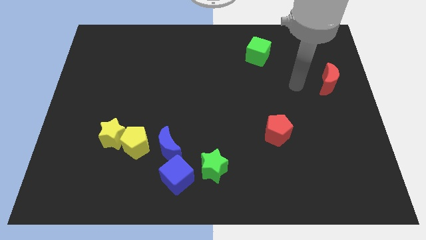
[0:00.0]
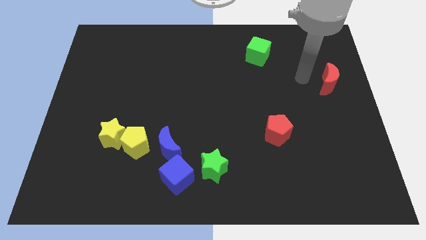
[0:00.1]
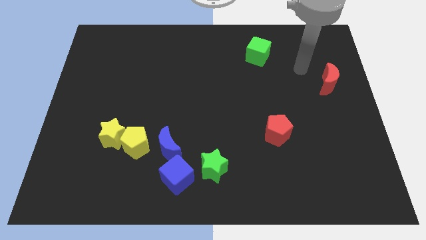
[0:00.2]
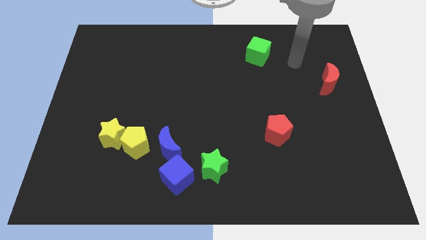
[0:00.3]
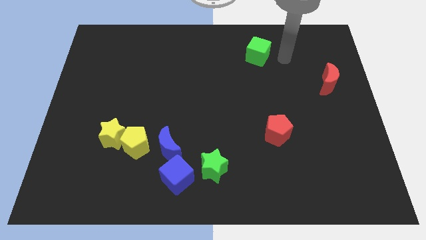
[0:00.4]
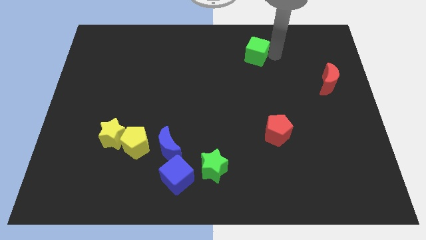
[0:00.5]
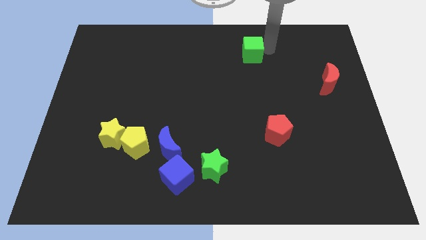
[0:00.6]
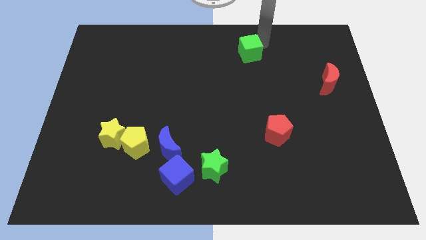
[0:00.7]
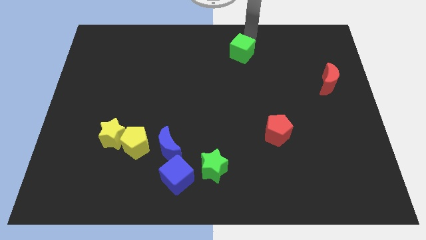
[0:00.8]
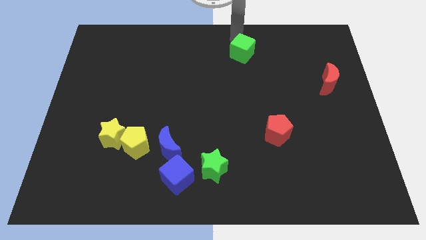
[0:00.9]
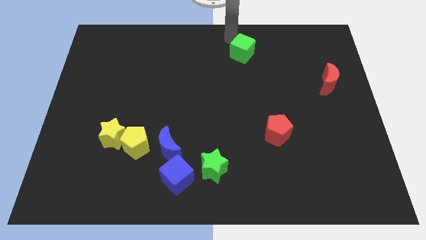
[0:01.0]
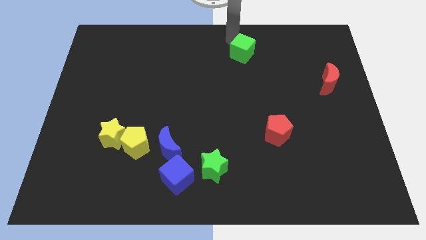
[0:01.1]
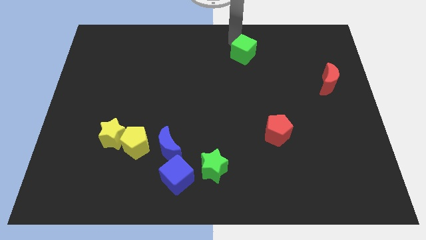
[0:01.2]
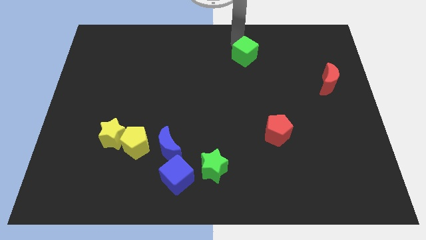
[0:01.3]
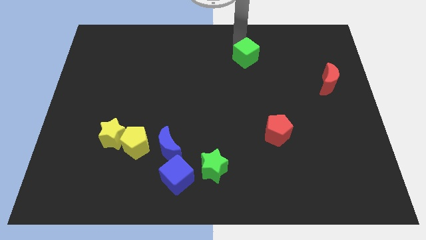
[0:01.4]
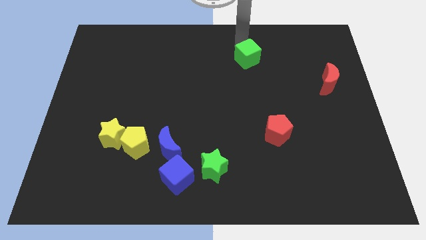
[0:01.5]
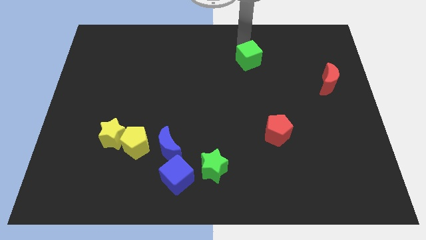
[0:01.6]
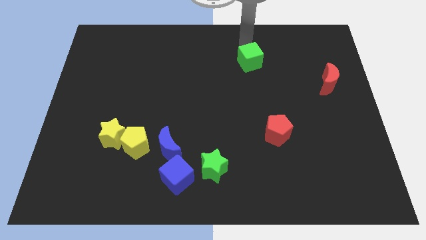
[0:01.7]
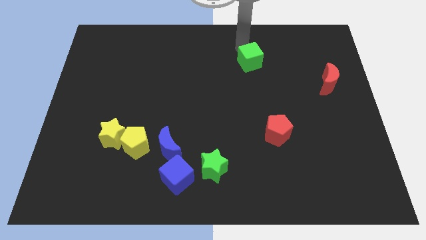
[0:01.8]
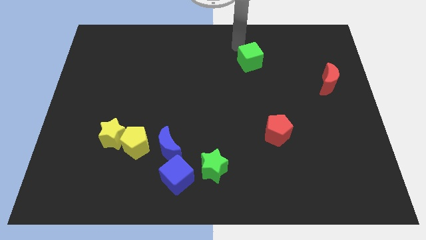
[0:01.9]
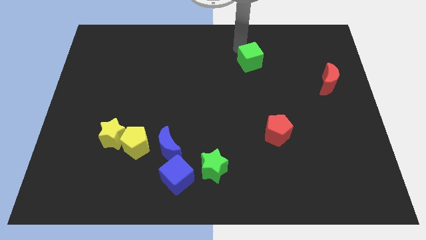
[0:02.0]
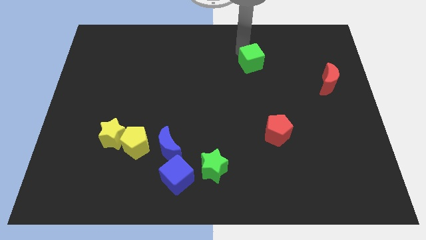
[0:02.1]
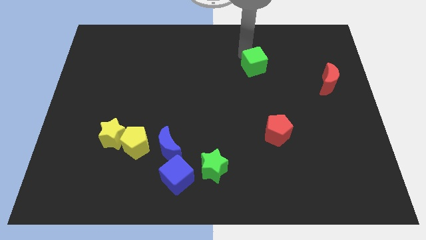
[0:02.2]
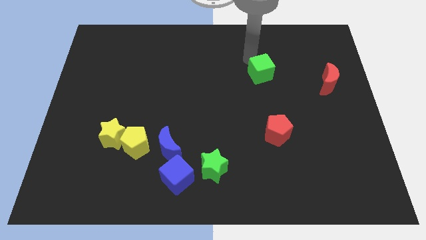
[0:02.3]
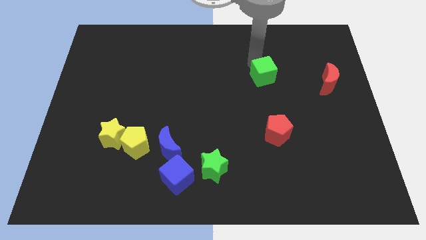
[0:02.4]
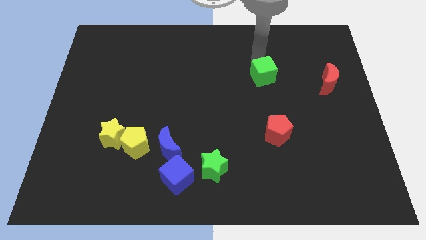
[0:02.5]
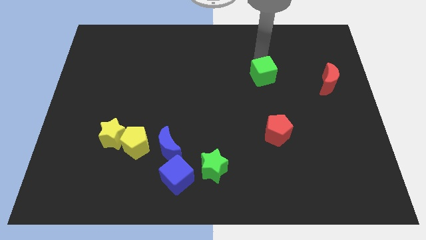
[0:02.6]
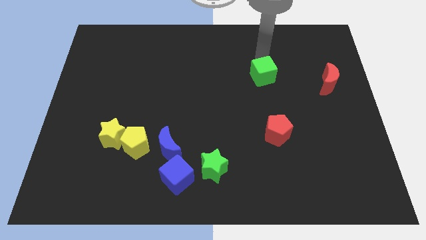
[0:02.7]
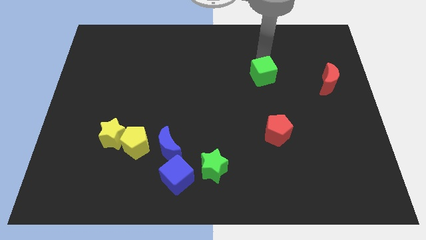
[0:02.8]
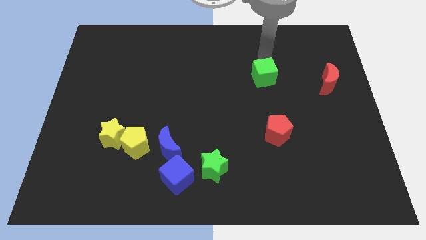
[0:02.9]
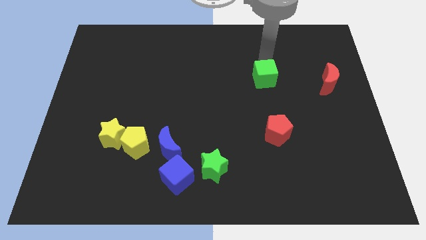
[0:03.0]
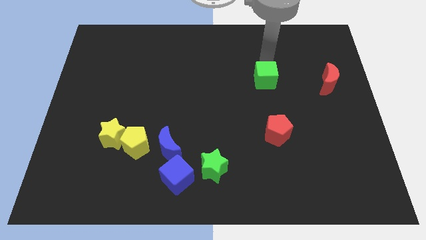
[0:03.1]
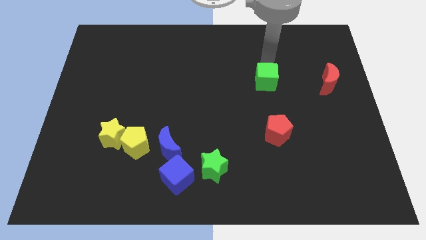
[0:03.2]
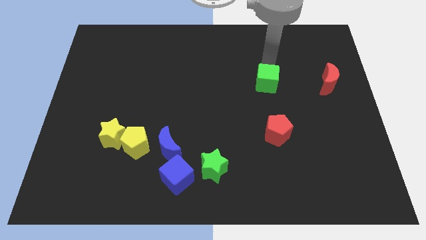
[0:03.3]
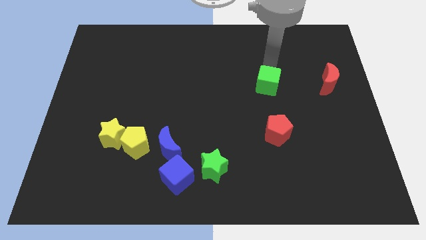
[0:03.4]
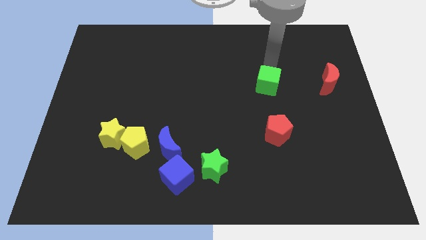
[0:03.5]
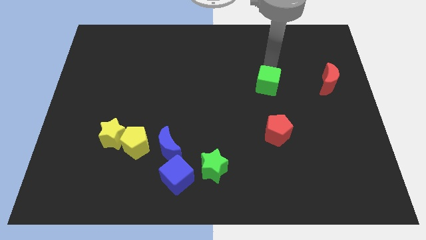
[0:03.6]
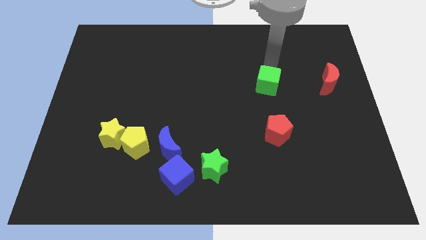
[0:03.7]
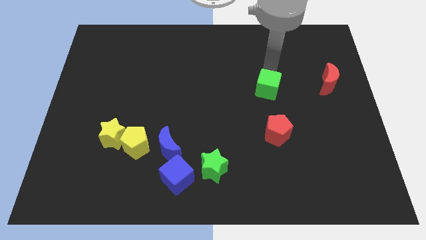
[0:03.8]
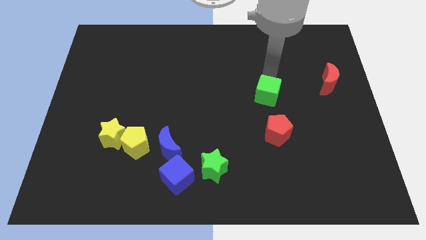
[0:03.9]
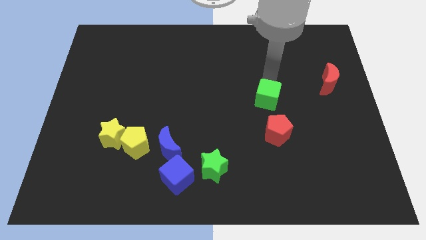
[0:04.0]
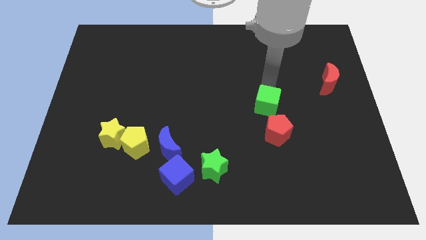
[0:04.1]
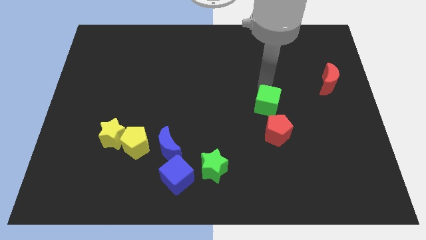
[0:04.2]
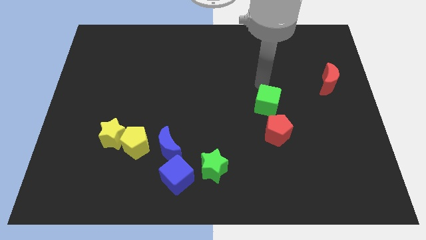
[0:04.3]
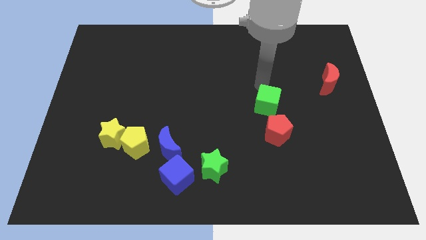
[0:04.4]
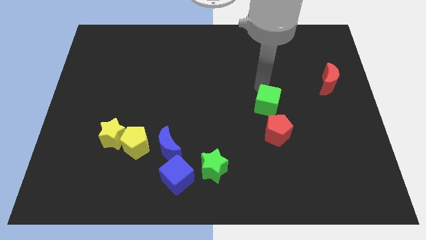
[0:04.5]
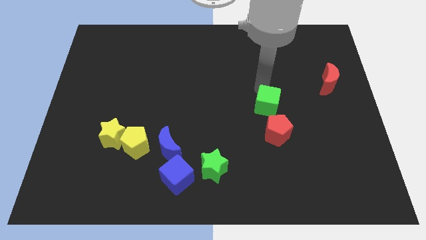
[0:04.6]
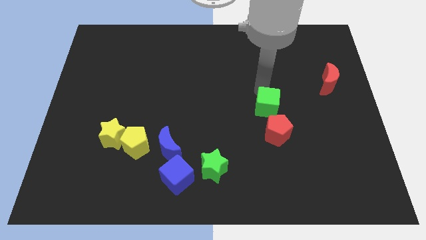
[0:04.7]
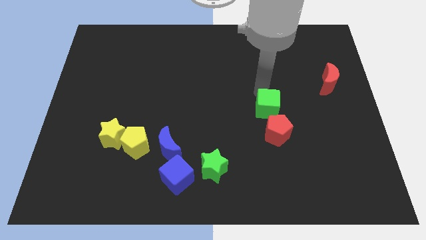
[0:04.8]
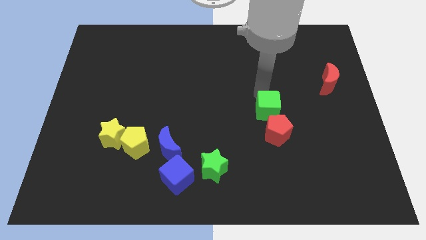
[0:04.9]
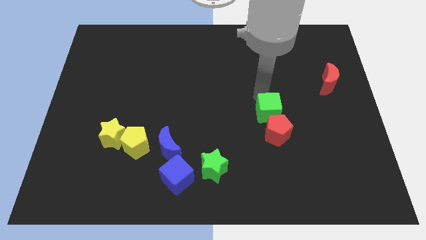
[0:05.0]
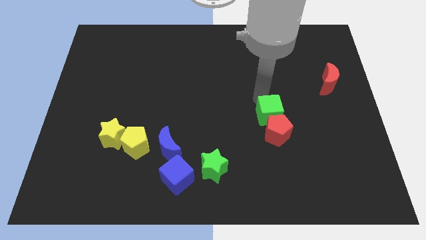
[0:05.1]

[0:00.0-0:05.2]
put the green cube towards the red pentagon

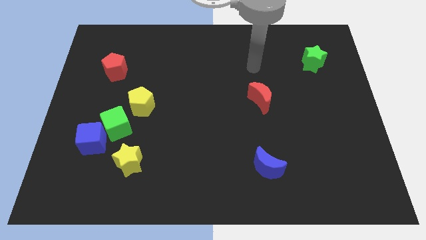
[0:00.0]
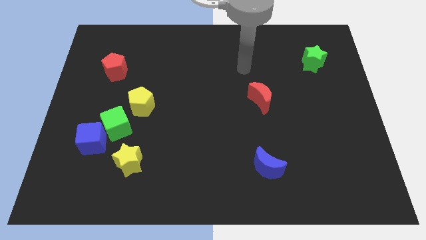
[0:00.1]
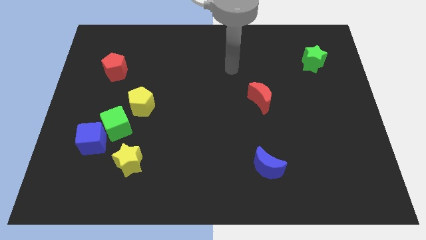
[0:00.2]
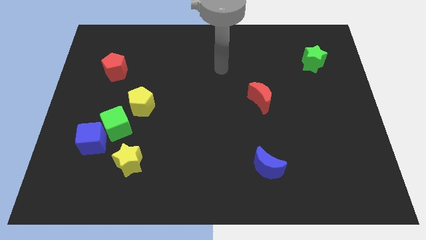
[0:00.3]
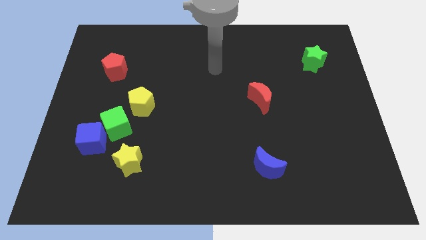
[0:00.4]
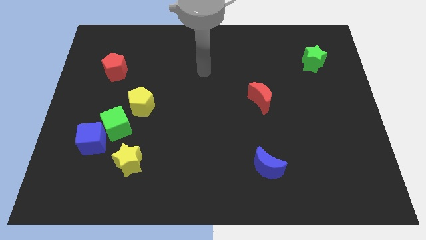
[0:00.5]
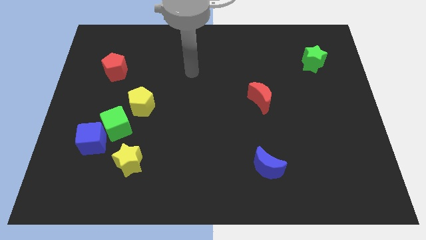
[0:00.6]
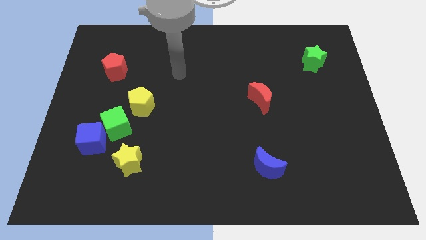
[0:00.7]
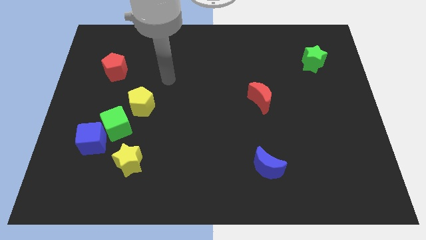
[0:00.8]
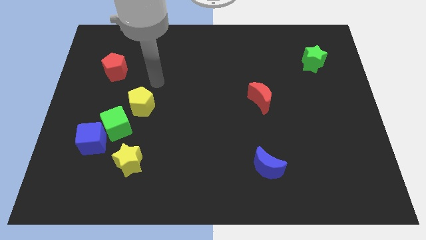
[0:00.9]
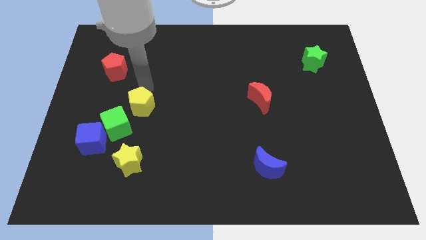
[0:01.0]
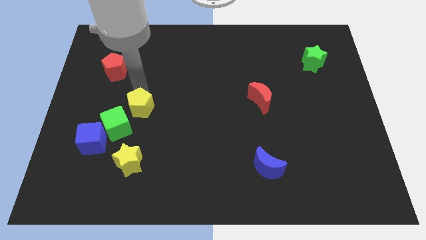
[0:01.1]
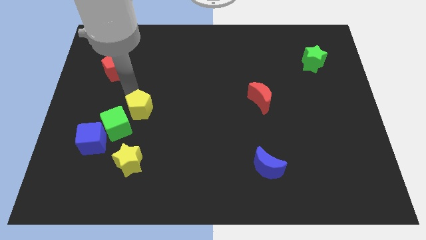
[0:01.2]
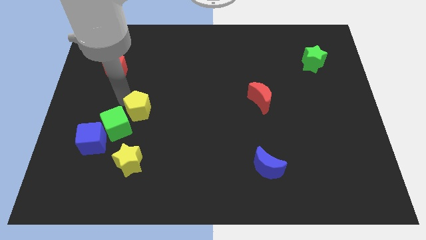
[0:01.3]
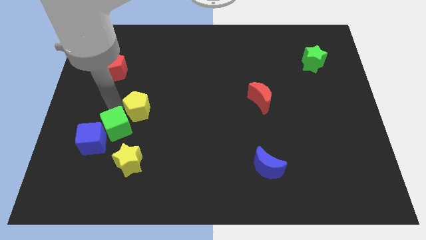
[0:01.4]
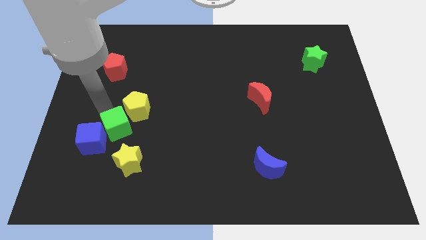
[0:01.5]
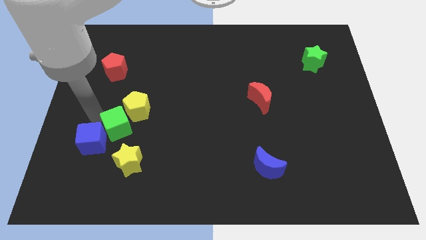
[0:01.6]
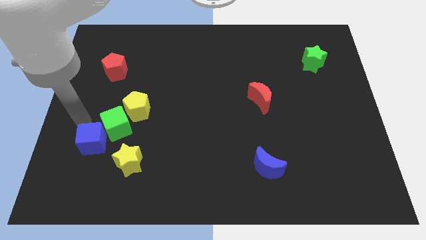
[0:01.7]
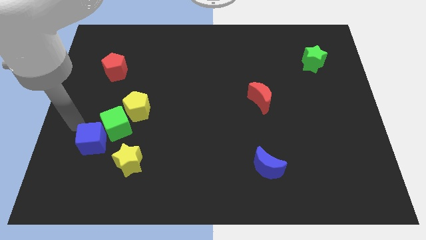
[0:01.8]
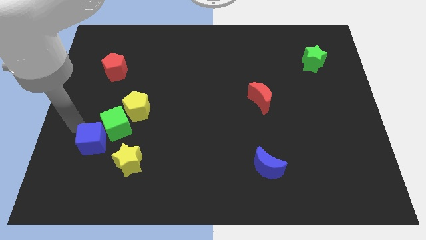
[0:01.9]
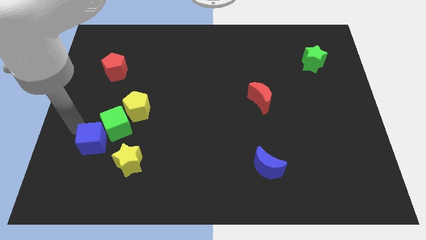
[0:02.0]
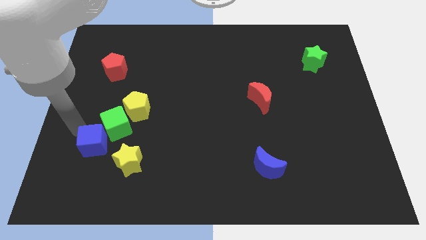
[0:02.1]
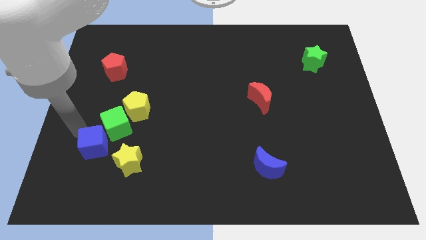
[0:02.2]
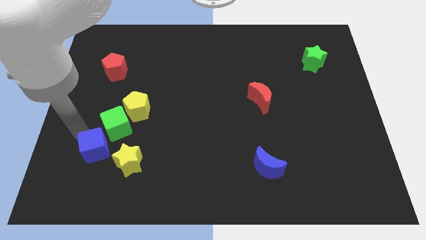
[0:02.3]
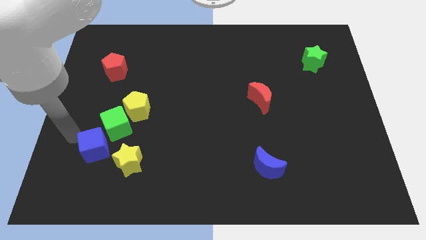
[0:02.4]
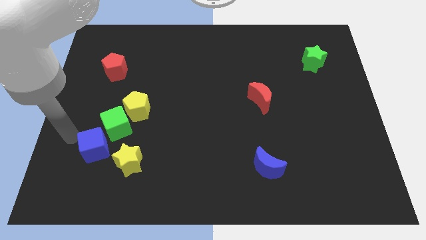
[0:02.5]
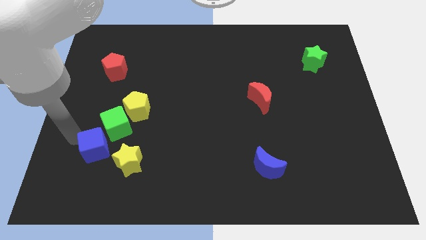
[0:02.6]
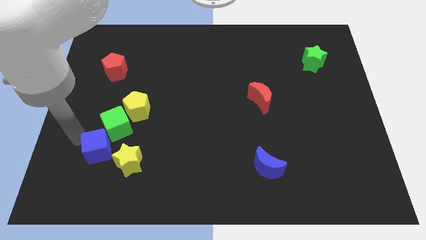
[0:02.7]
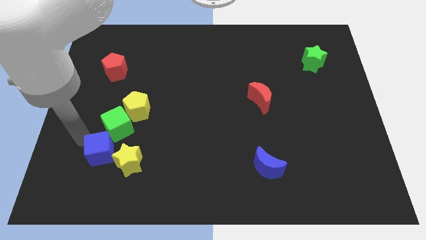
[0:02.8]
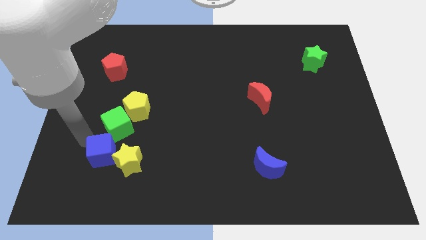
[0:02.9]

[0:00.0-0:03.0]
slide the blue cube to the yellow star
